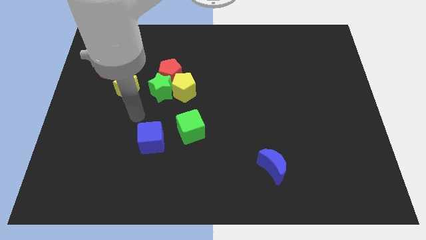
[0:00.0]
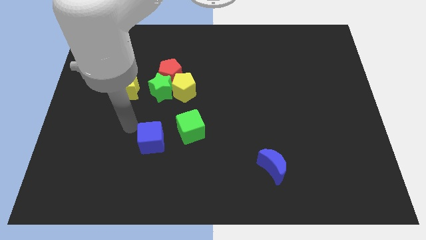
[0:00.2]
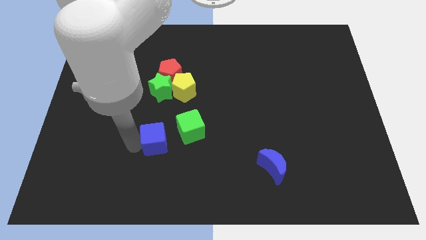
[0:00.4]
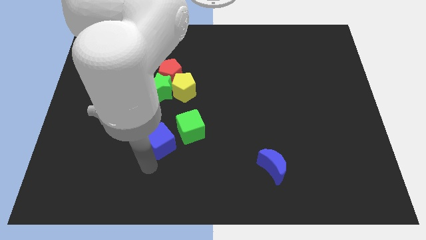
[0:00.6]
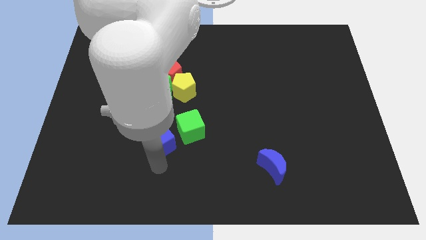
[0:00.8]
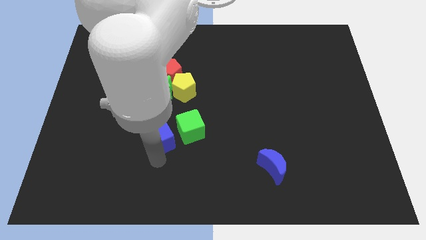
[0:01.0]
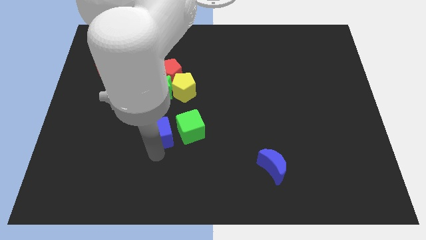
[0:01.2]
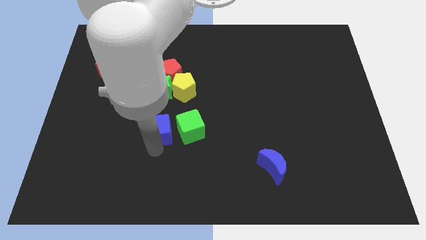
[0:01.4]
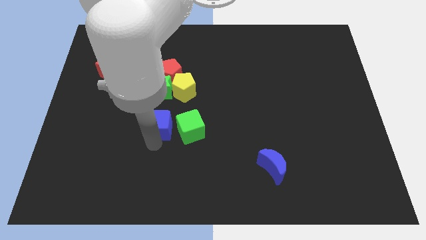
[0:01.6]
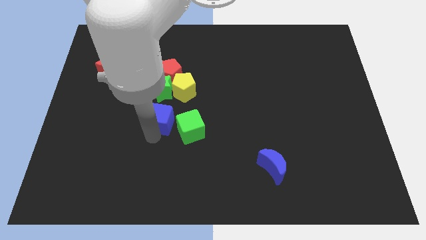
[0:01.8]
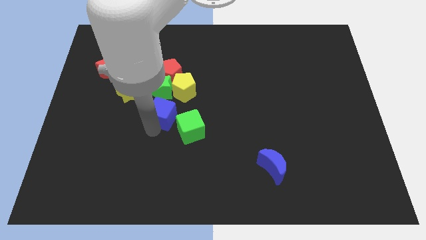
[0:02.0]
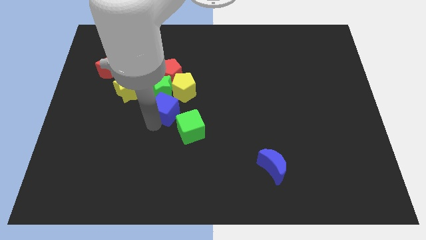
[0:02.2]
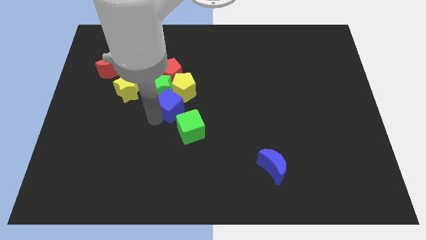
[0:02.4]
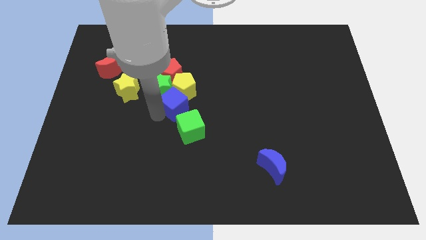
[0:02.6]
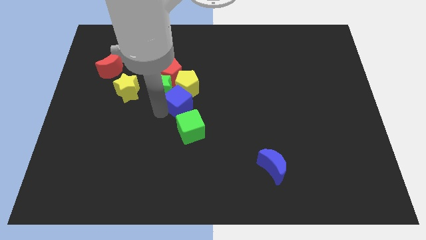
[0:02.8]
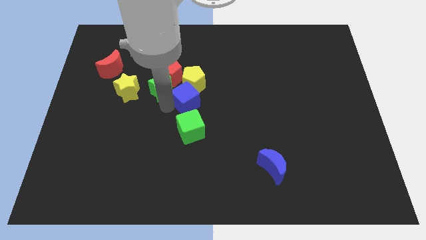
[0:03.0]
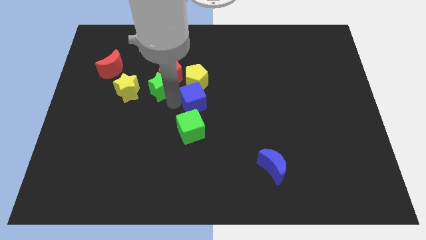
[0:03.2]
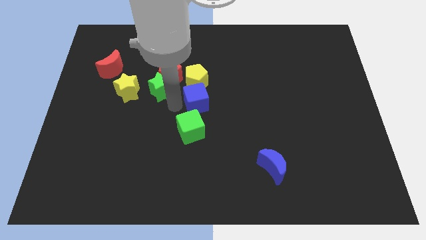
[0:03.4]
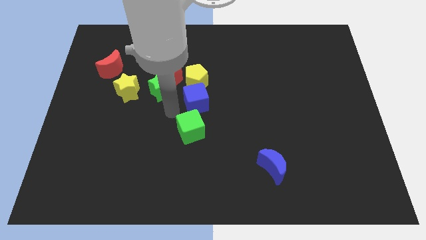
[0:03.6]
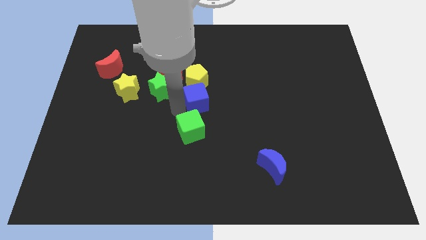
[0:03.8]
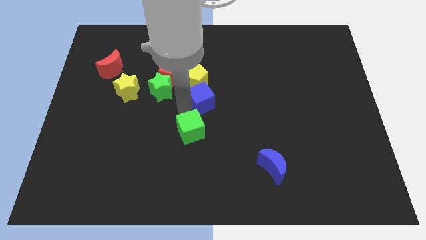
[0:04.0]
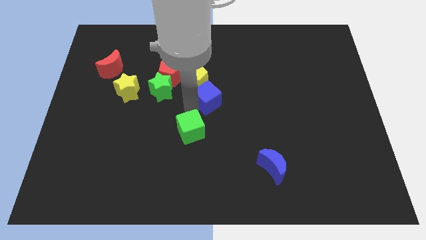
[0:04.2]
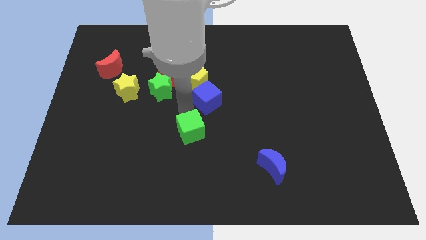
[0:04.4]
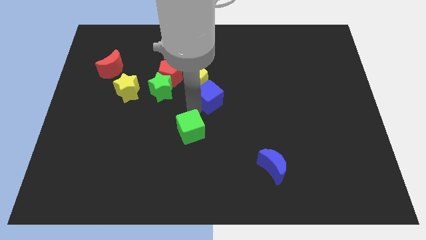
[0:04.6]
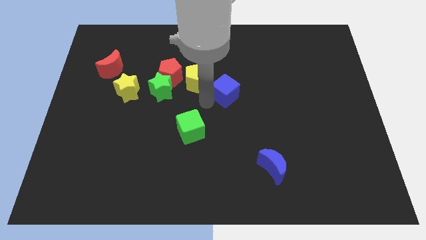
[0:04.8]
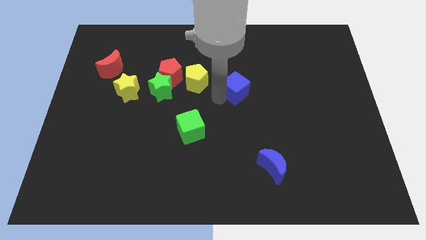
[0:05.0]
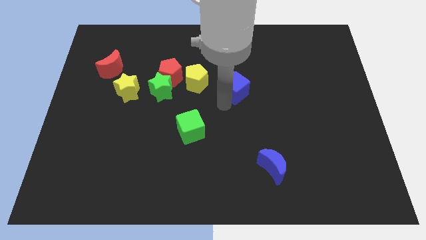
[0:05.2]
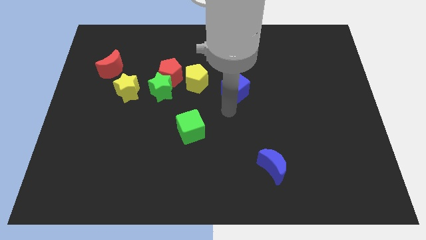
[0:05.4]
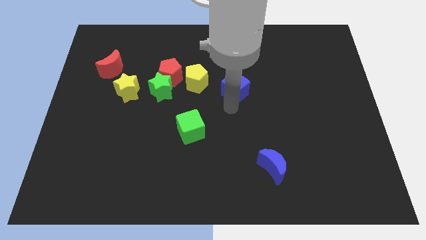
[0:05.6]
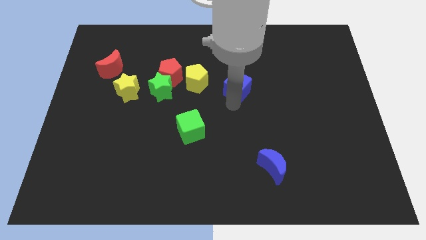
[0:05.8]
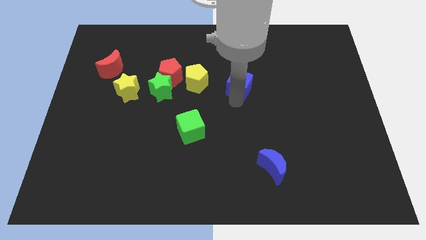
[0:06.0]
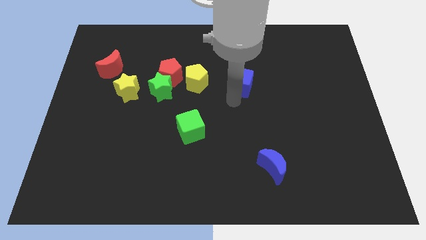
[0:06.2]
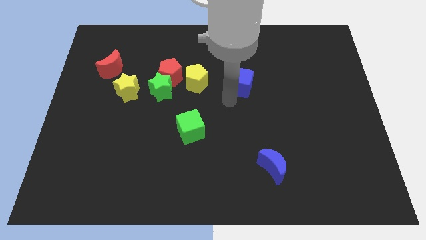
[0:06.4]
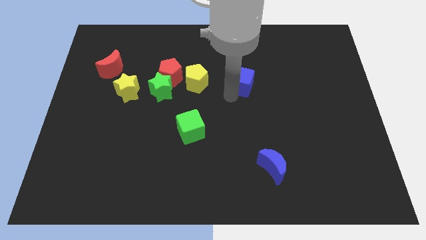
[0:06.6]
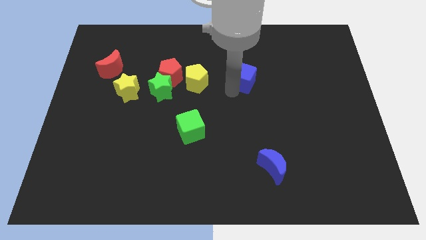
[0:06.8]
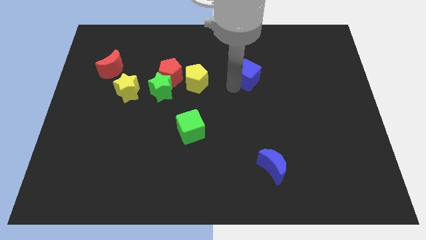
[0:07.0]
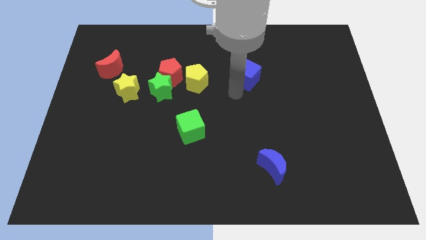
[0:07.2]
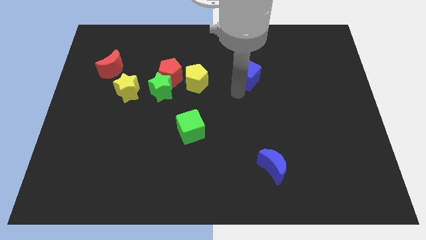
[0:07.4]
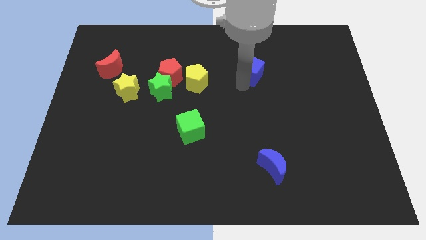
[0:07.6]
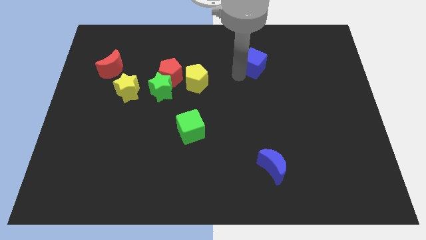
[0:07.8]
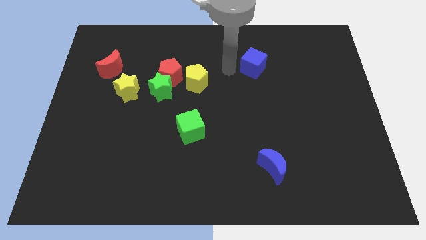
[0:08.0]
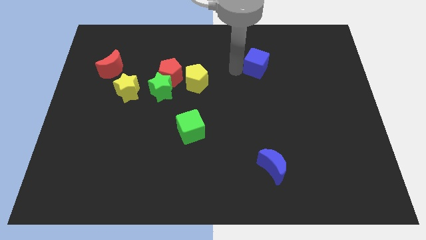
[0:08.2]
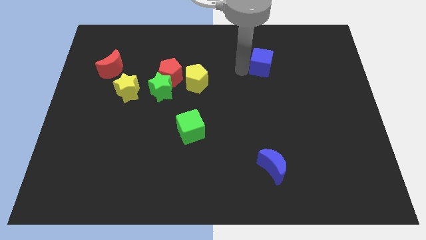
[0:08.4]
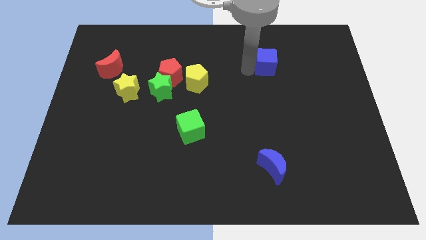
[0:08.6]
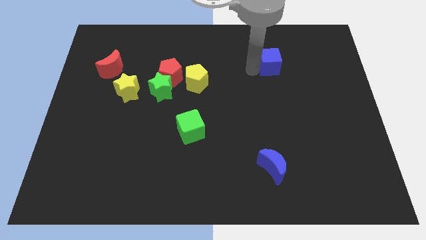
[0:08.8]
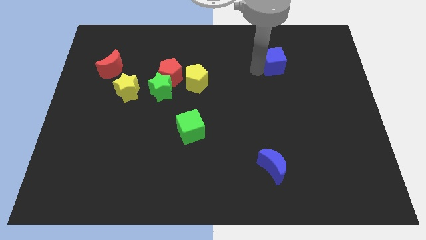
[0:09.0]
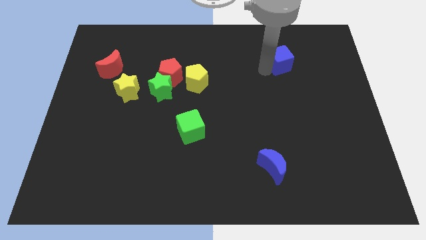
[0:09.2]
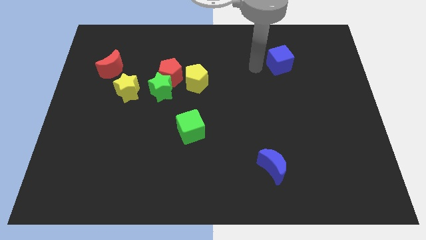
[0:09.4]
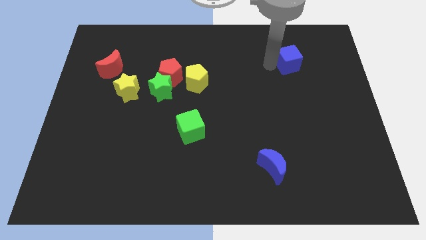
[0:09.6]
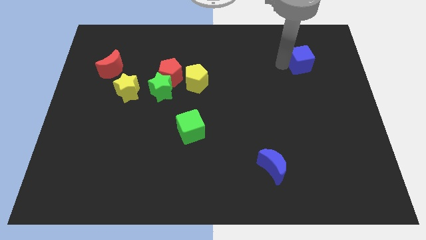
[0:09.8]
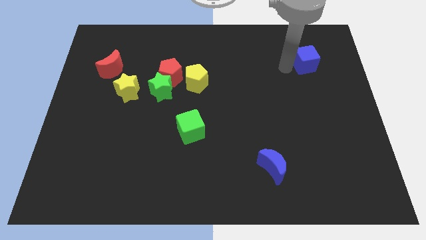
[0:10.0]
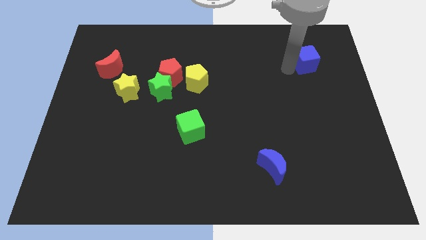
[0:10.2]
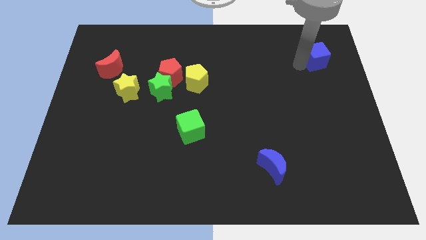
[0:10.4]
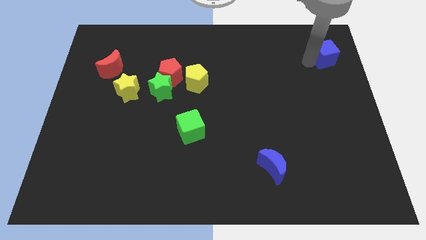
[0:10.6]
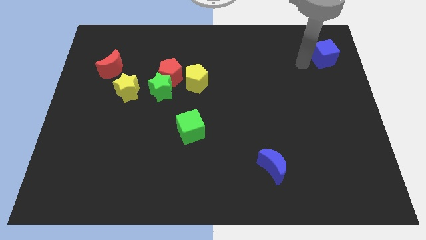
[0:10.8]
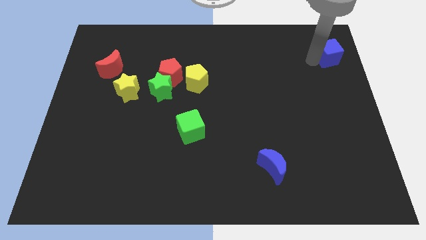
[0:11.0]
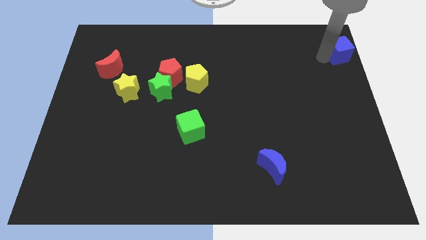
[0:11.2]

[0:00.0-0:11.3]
move the blue cube to the top right of the board

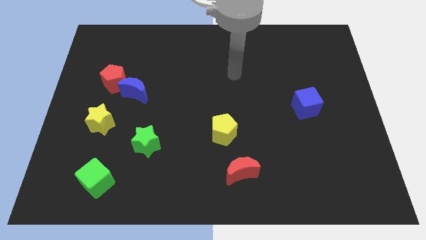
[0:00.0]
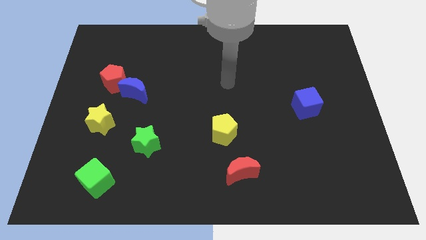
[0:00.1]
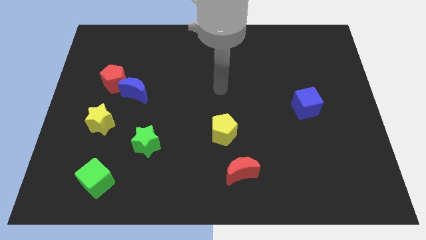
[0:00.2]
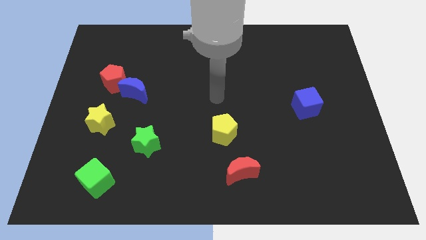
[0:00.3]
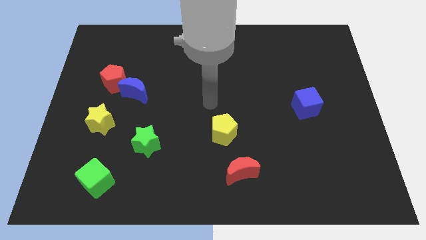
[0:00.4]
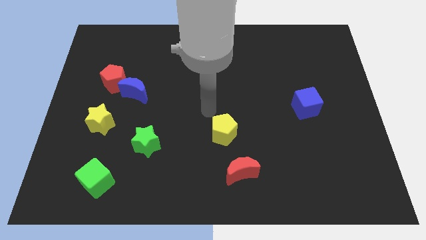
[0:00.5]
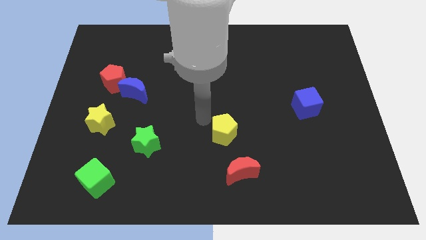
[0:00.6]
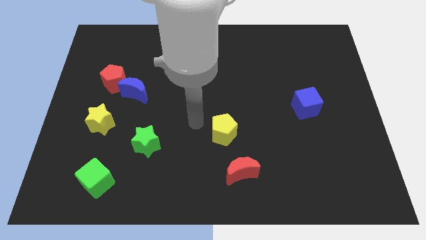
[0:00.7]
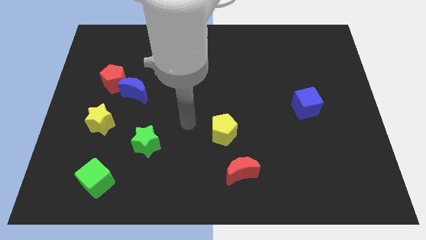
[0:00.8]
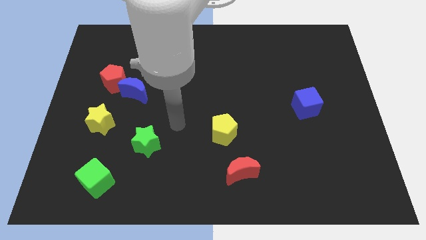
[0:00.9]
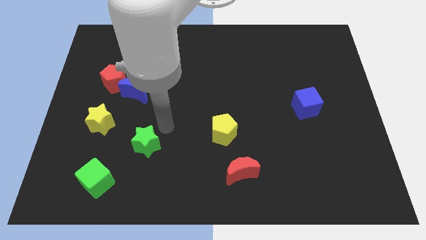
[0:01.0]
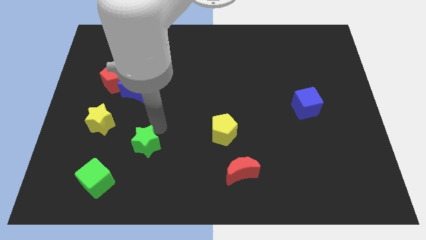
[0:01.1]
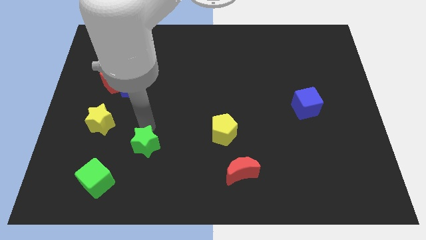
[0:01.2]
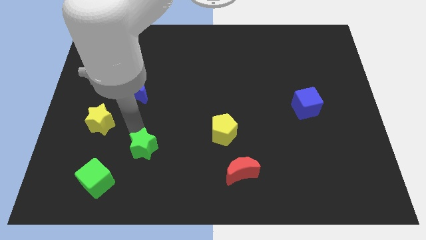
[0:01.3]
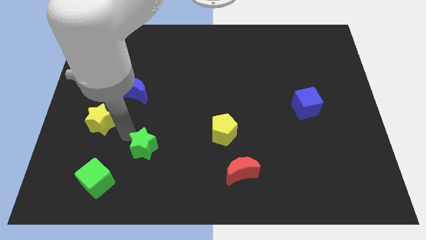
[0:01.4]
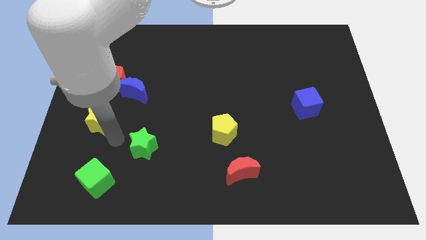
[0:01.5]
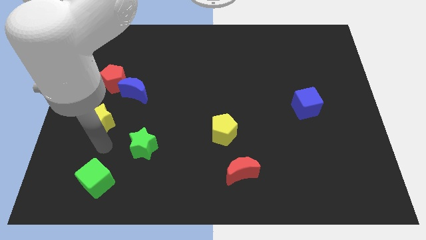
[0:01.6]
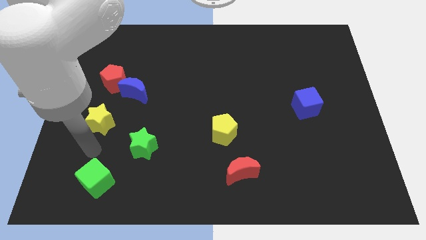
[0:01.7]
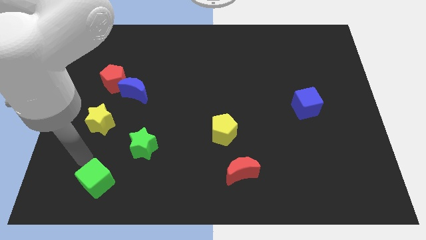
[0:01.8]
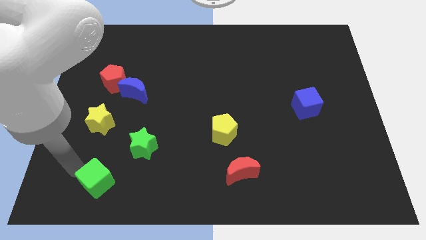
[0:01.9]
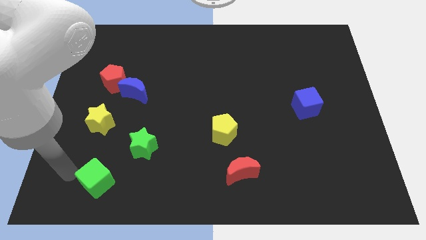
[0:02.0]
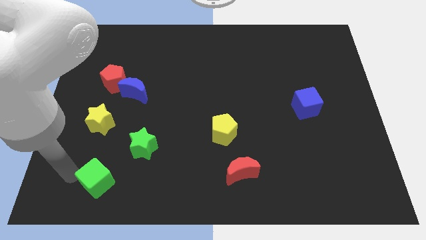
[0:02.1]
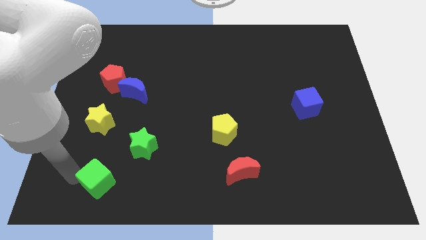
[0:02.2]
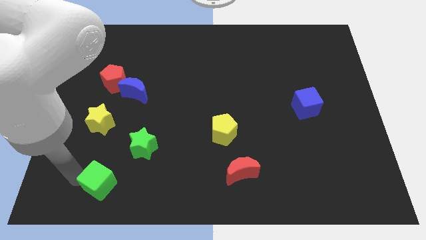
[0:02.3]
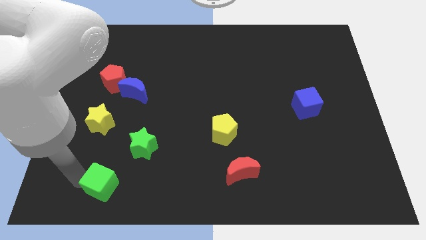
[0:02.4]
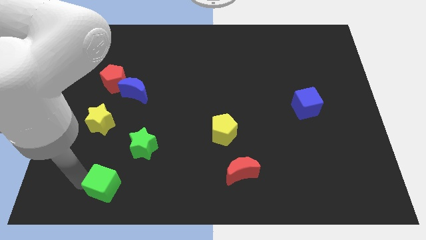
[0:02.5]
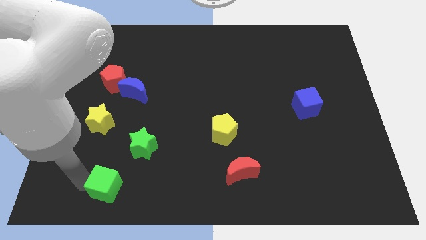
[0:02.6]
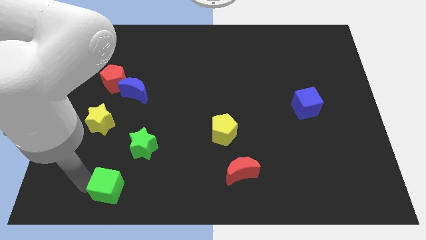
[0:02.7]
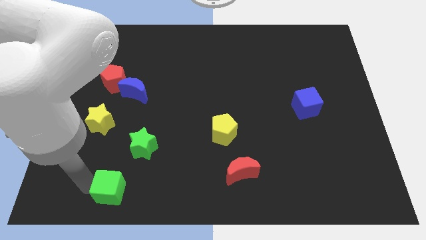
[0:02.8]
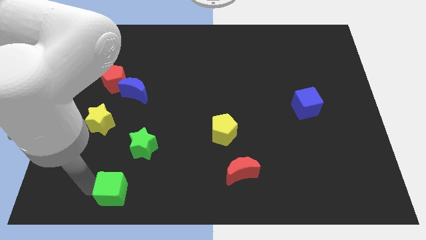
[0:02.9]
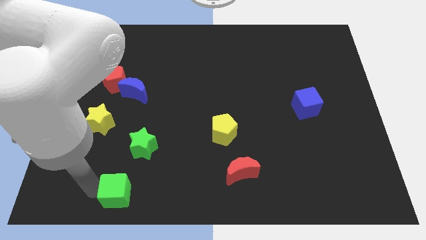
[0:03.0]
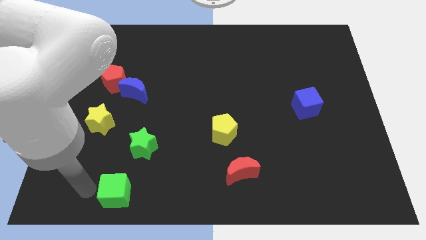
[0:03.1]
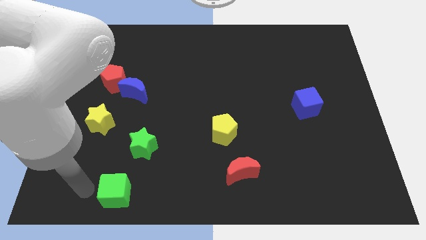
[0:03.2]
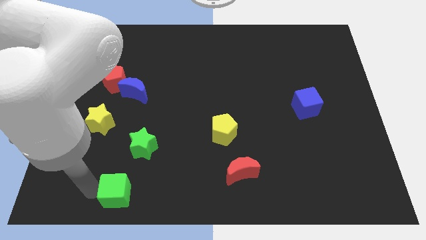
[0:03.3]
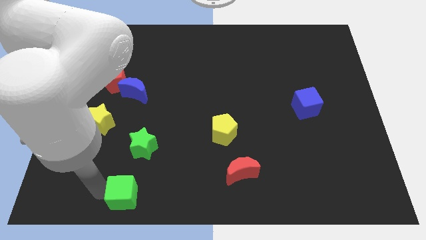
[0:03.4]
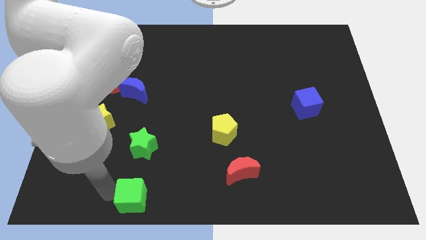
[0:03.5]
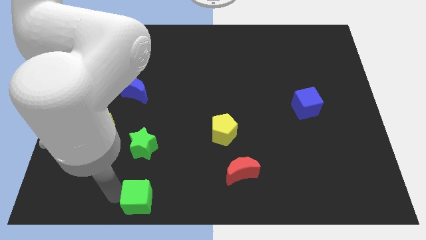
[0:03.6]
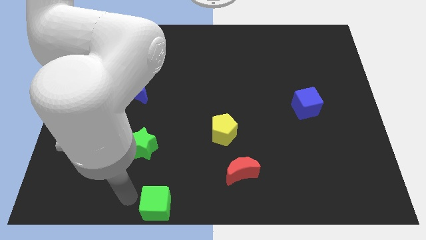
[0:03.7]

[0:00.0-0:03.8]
put the green cube to the bottom side
